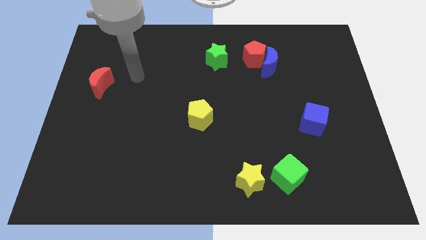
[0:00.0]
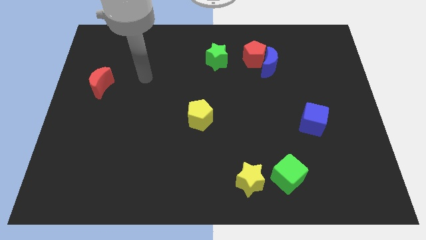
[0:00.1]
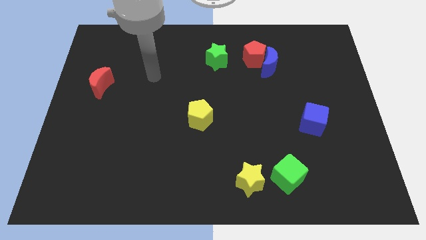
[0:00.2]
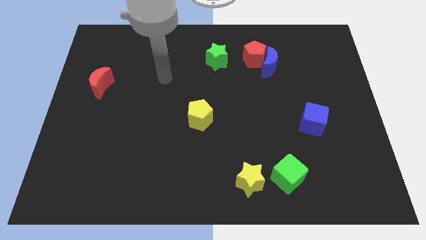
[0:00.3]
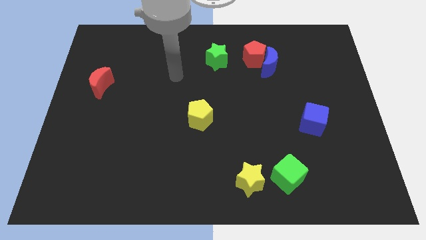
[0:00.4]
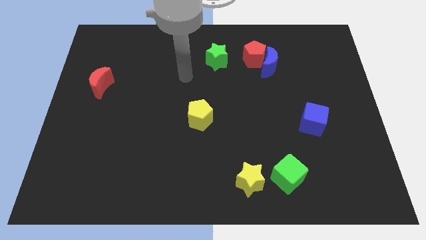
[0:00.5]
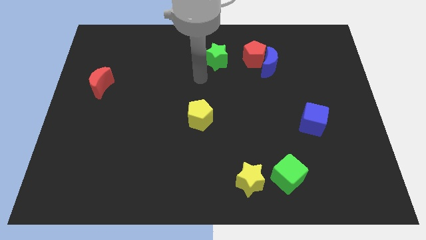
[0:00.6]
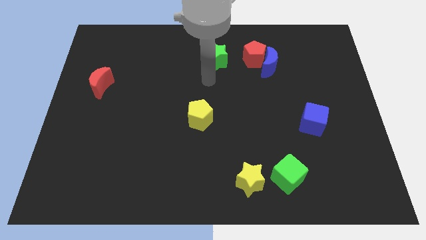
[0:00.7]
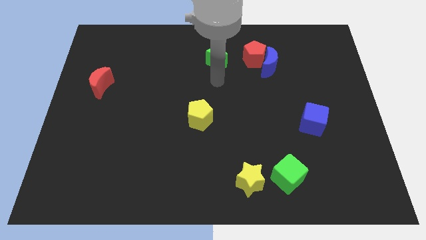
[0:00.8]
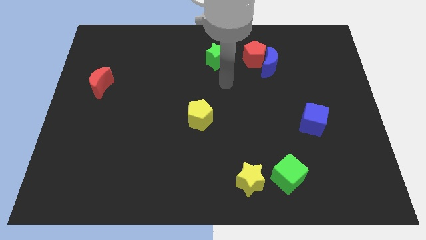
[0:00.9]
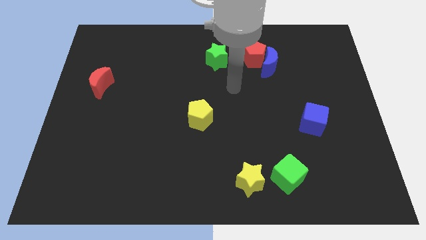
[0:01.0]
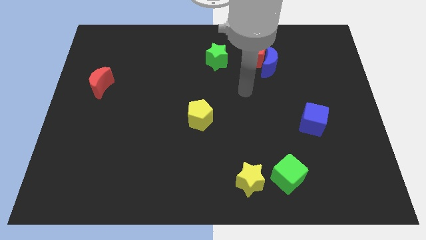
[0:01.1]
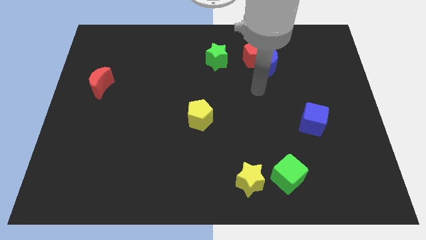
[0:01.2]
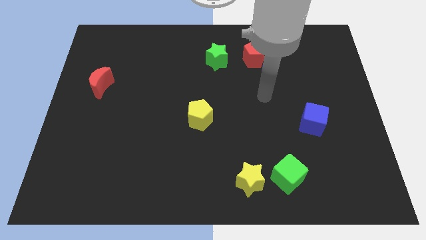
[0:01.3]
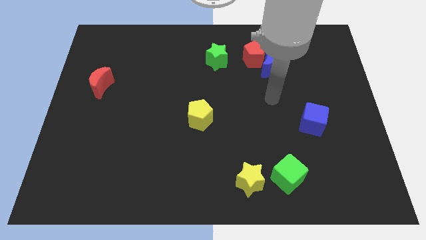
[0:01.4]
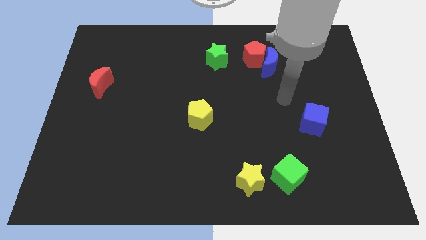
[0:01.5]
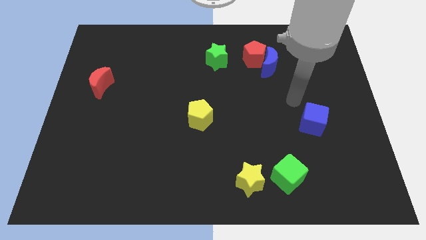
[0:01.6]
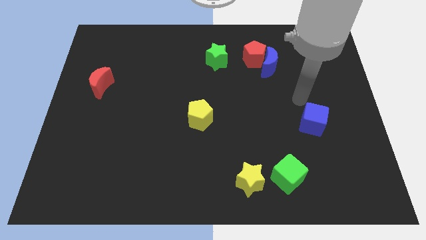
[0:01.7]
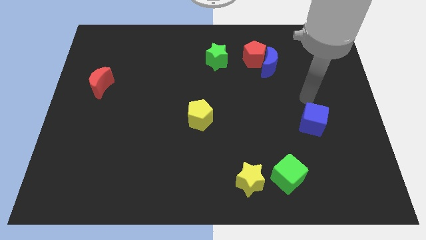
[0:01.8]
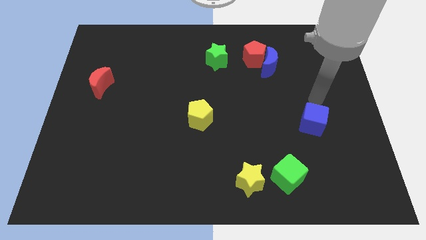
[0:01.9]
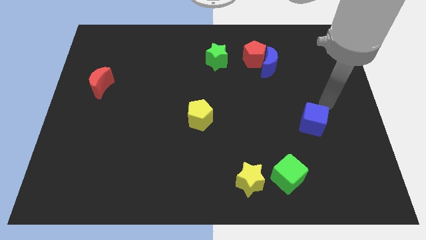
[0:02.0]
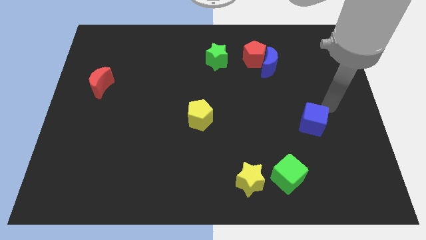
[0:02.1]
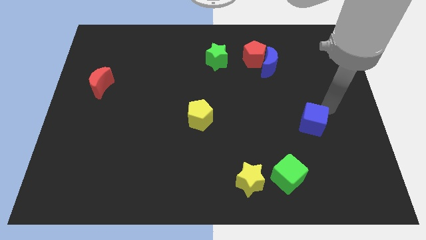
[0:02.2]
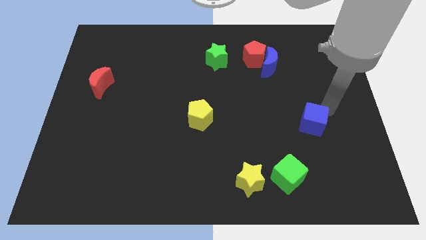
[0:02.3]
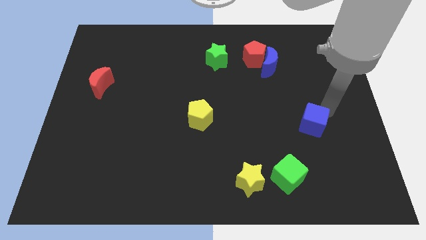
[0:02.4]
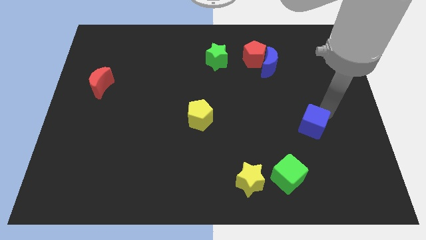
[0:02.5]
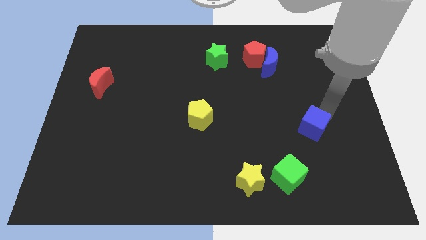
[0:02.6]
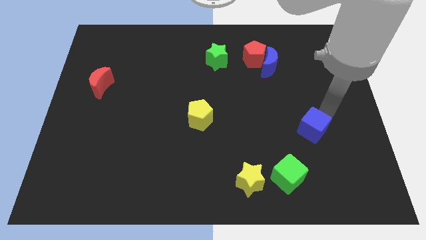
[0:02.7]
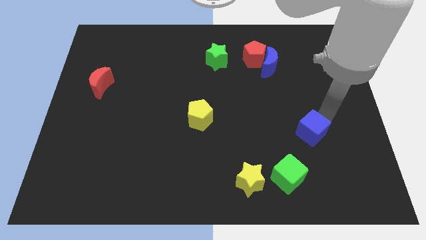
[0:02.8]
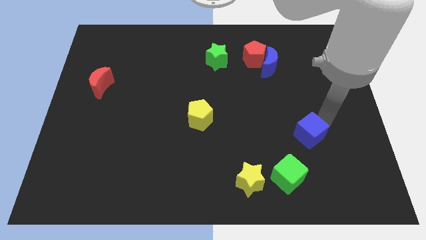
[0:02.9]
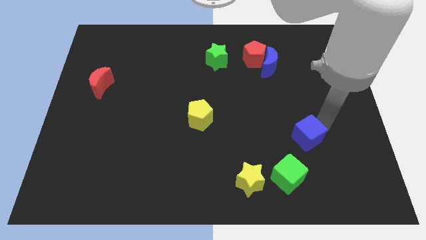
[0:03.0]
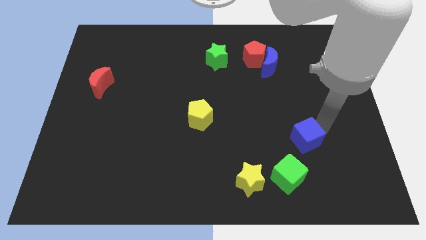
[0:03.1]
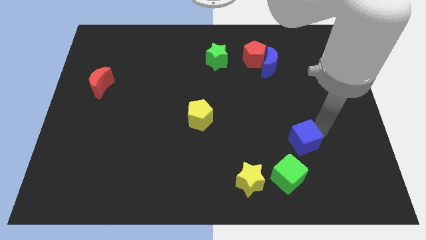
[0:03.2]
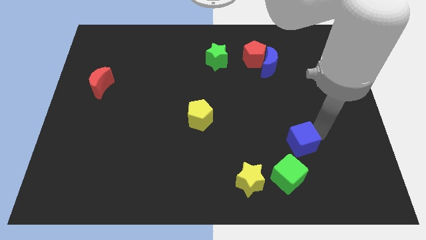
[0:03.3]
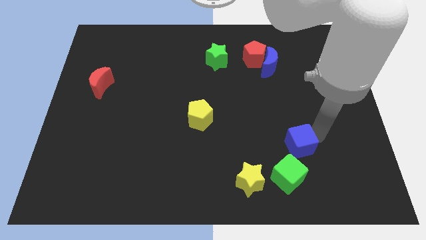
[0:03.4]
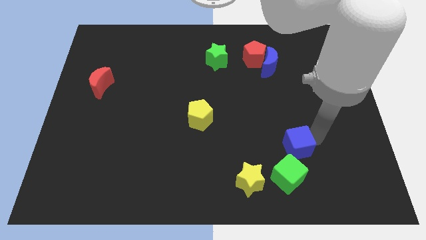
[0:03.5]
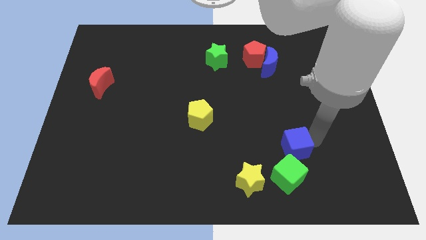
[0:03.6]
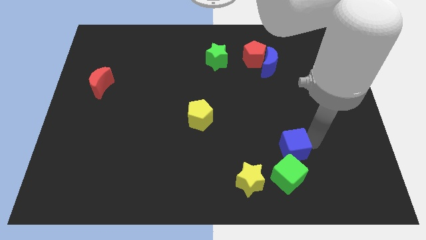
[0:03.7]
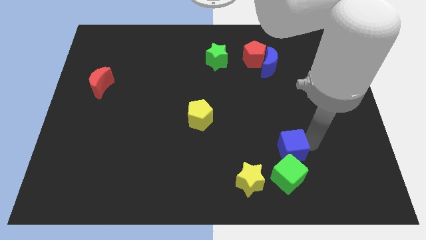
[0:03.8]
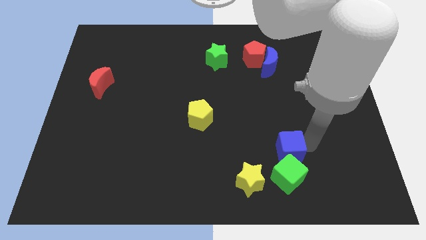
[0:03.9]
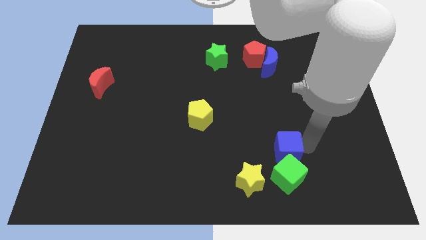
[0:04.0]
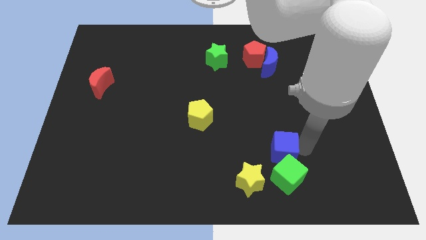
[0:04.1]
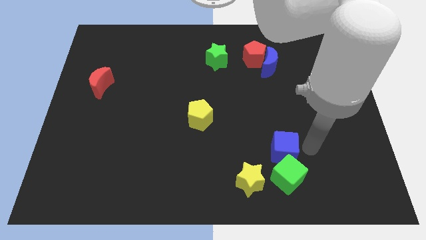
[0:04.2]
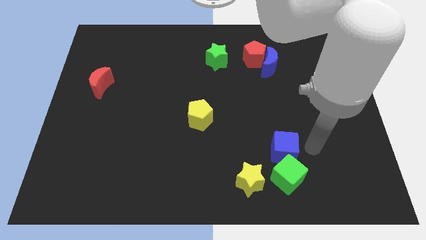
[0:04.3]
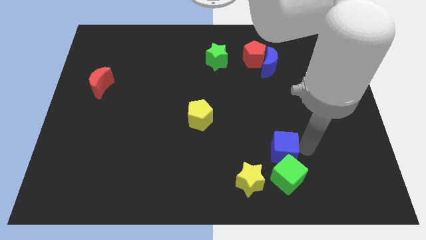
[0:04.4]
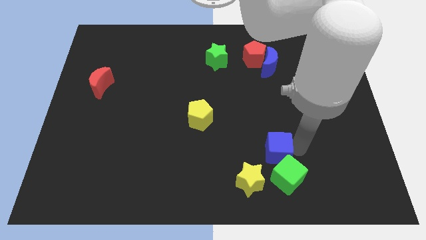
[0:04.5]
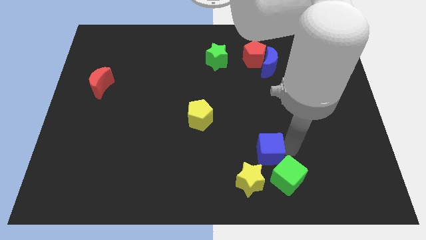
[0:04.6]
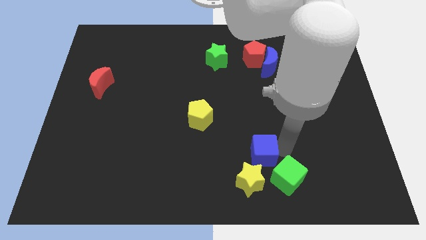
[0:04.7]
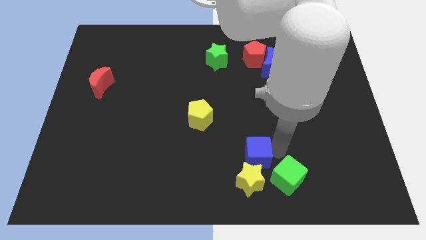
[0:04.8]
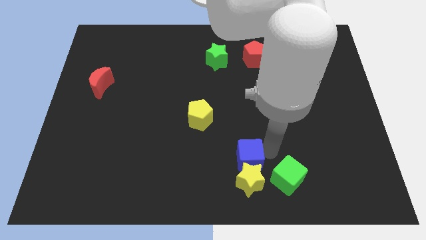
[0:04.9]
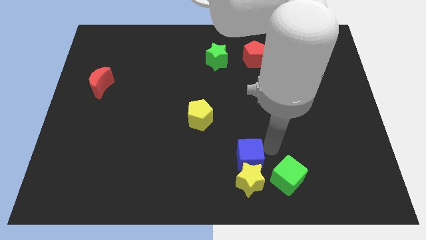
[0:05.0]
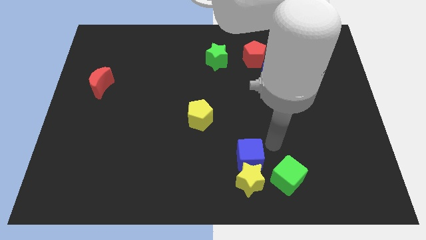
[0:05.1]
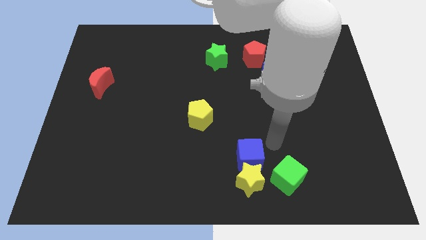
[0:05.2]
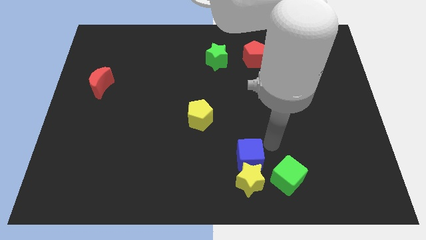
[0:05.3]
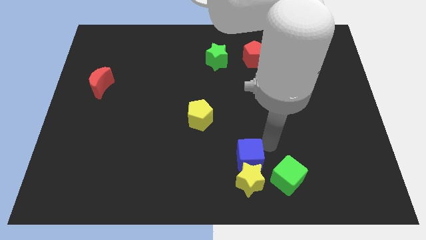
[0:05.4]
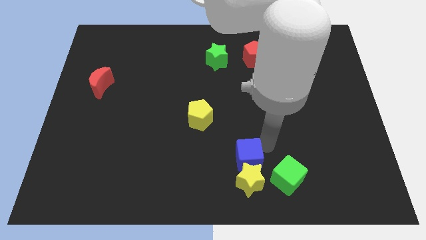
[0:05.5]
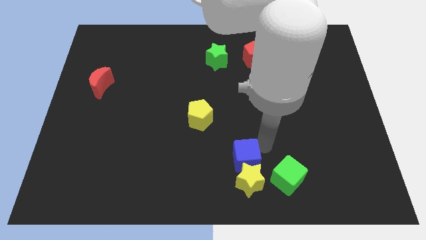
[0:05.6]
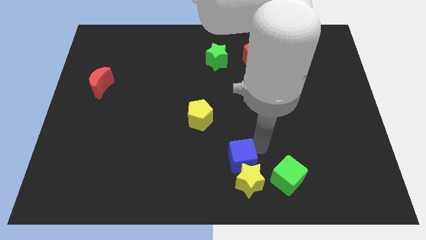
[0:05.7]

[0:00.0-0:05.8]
push the blue cube to the bottom

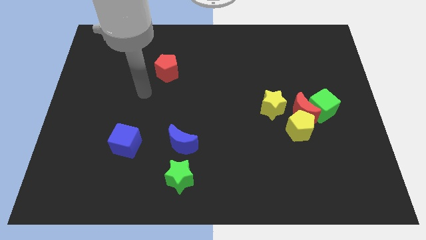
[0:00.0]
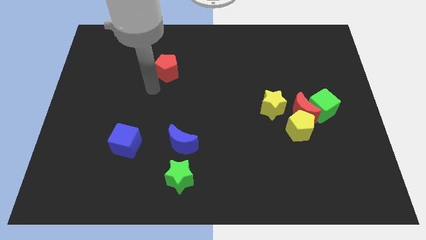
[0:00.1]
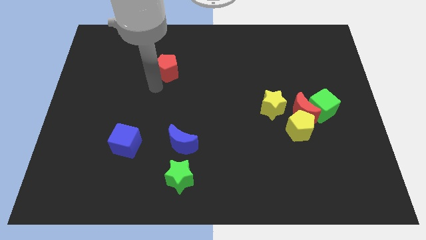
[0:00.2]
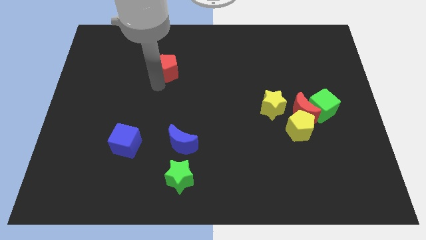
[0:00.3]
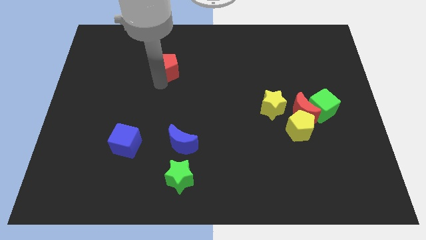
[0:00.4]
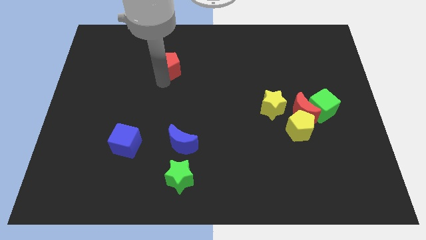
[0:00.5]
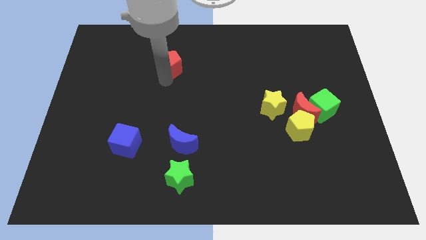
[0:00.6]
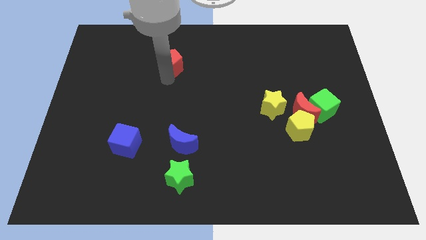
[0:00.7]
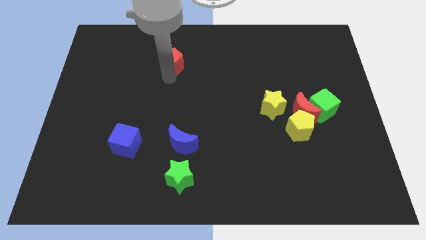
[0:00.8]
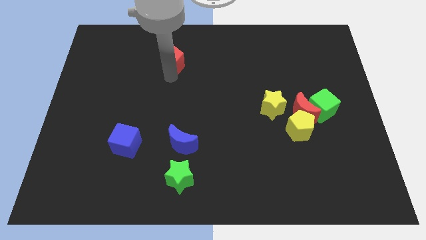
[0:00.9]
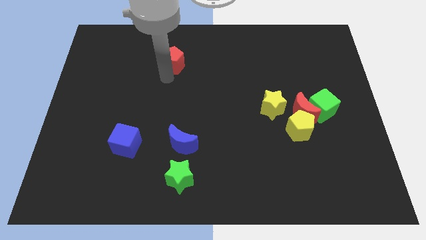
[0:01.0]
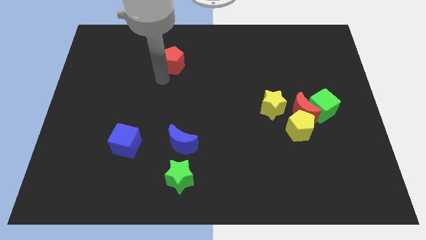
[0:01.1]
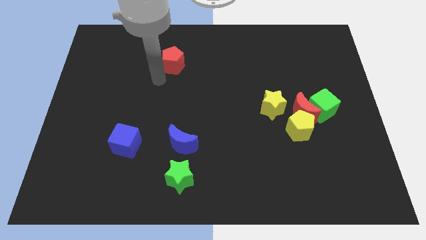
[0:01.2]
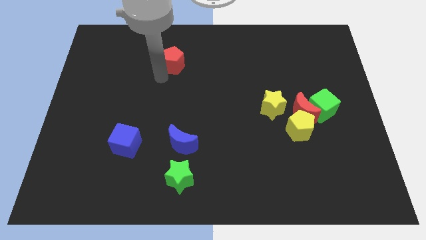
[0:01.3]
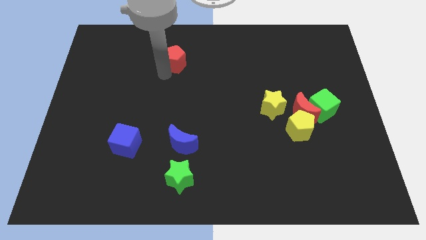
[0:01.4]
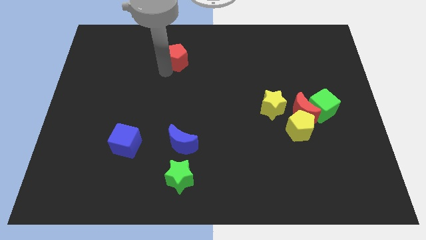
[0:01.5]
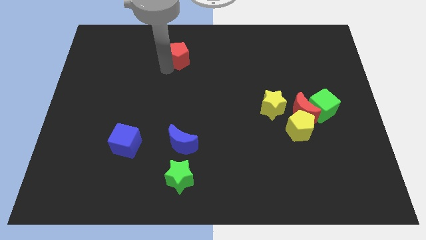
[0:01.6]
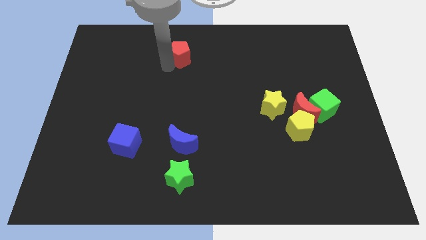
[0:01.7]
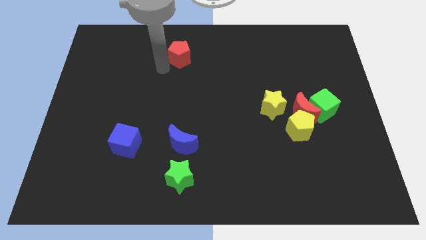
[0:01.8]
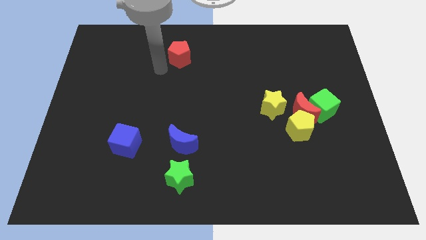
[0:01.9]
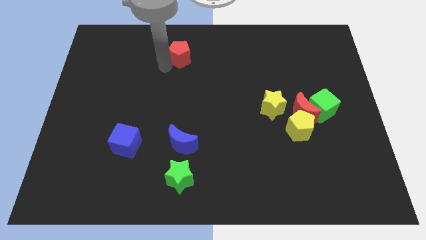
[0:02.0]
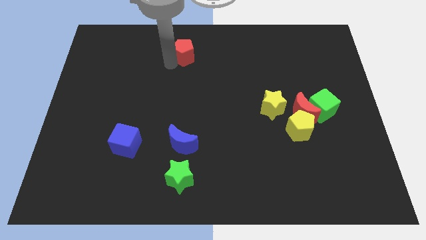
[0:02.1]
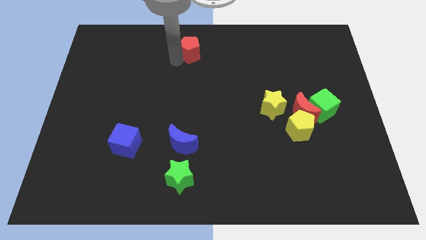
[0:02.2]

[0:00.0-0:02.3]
put the red pentagon to the towards your base
